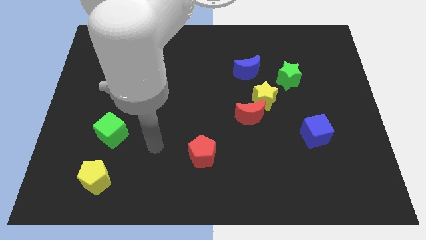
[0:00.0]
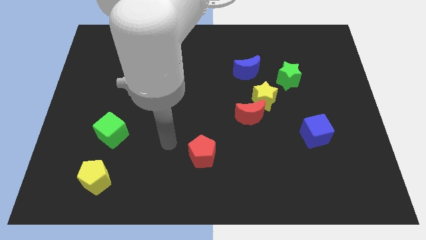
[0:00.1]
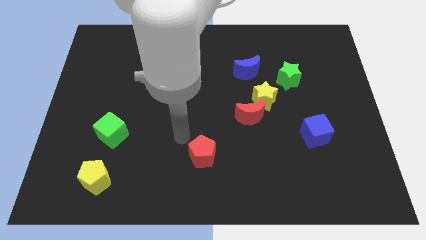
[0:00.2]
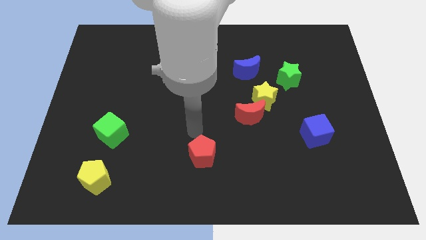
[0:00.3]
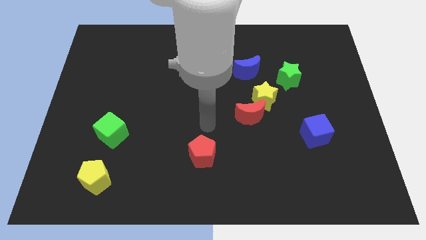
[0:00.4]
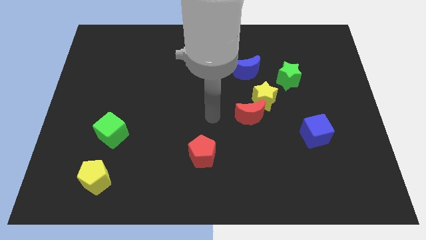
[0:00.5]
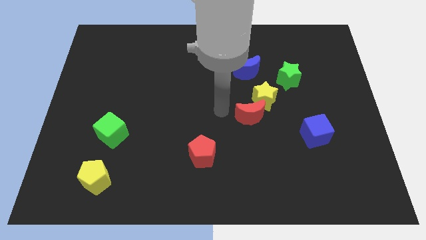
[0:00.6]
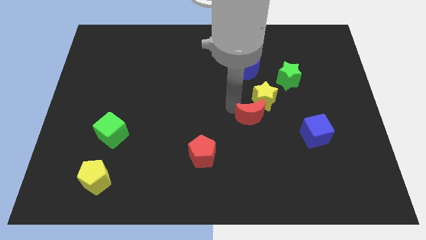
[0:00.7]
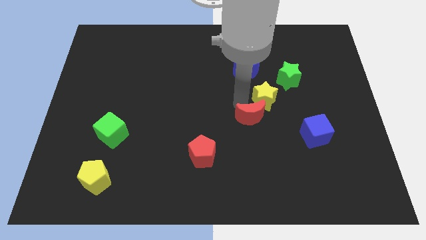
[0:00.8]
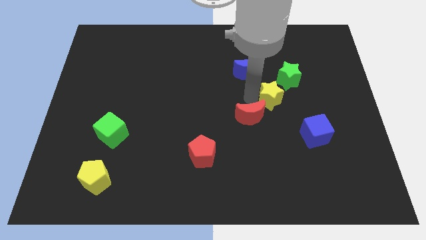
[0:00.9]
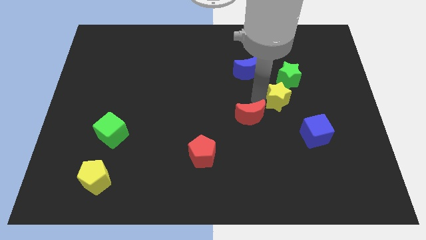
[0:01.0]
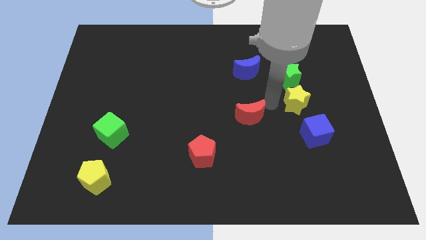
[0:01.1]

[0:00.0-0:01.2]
pull the red moon apart from the yellow star

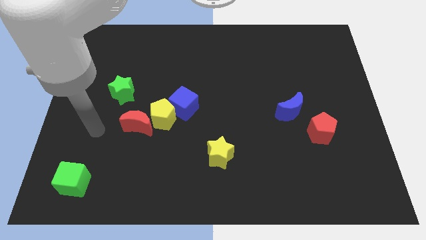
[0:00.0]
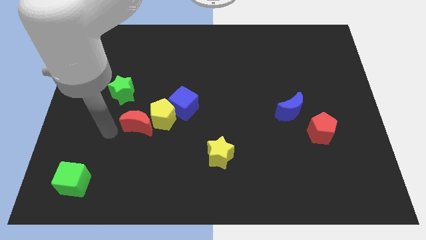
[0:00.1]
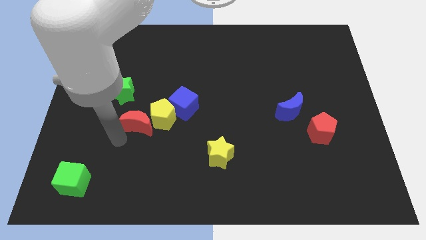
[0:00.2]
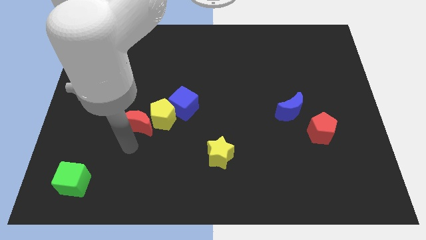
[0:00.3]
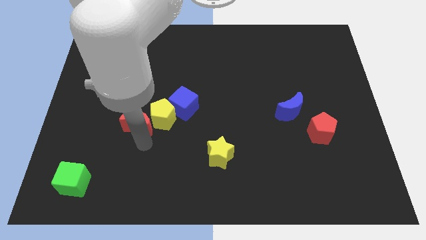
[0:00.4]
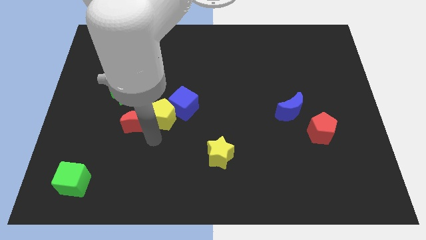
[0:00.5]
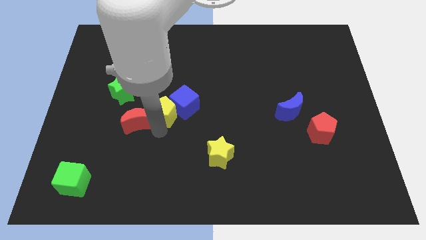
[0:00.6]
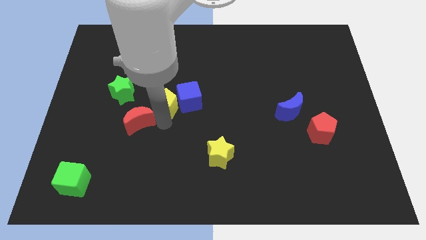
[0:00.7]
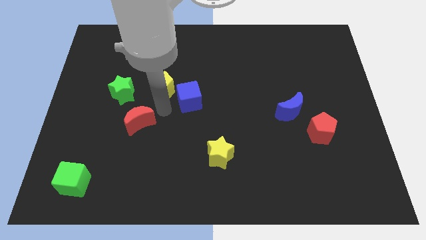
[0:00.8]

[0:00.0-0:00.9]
separate the red moon from the yellow pentagon

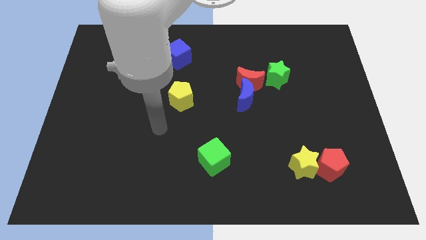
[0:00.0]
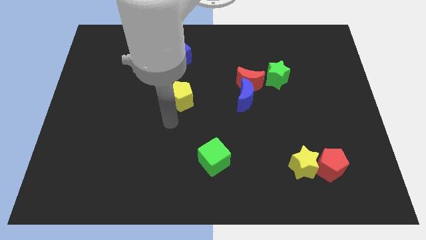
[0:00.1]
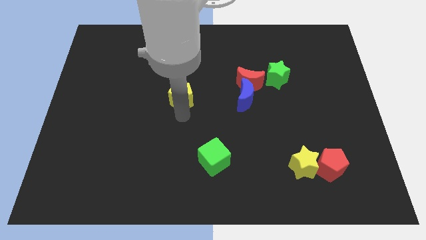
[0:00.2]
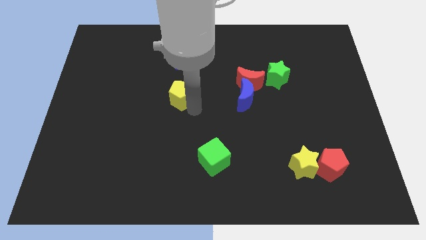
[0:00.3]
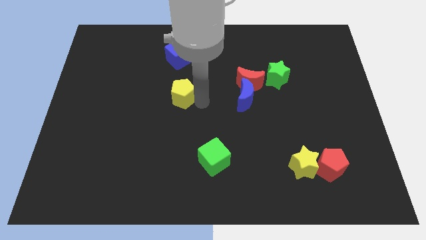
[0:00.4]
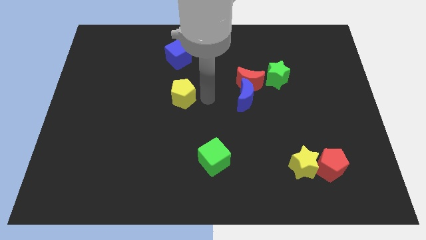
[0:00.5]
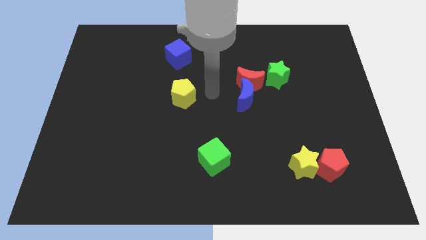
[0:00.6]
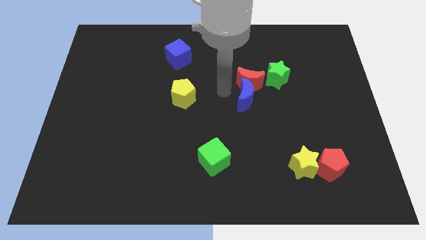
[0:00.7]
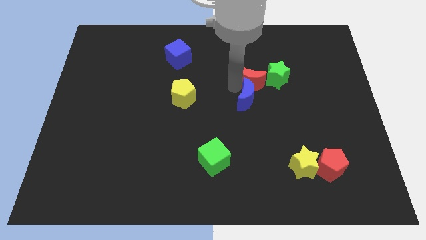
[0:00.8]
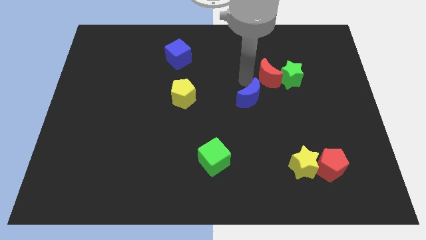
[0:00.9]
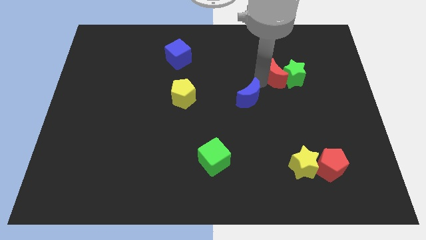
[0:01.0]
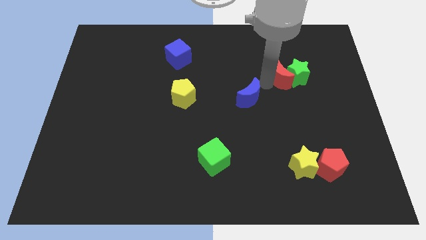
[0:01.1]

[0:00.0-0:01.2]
move the blue moon away from the red moon

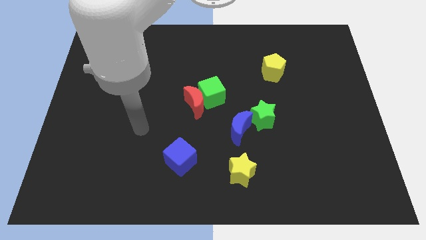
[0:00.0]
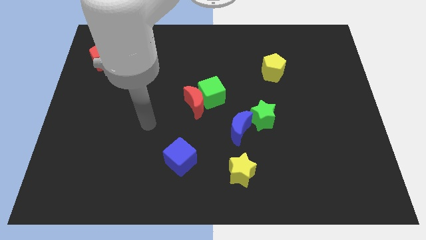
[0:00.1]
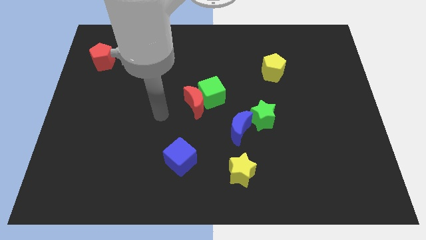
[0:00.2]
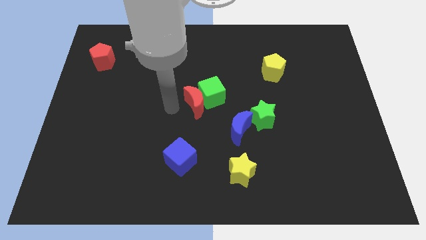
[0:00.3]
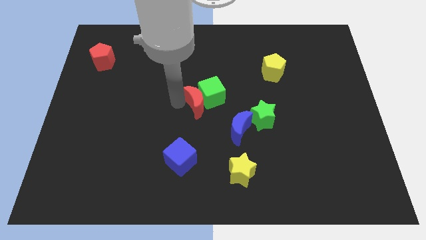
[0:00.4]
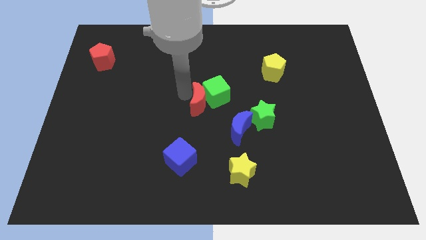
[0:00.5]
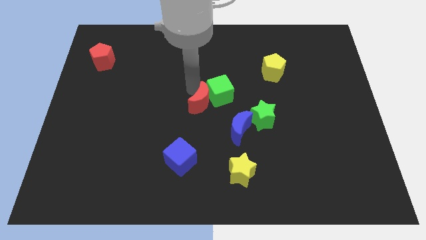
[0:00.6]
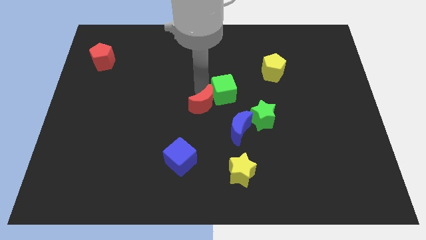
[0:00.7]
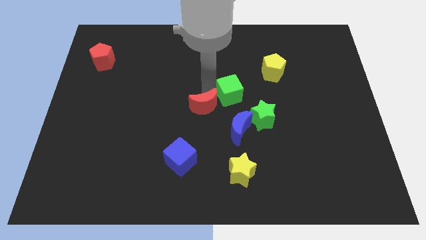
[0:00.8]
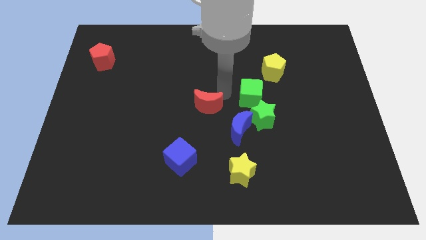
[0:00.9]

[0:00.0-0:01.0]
move the red moon away from the green cube

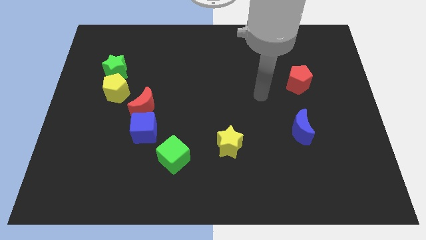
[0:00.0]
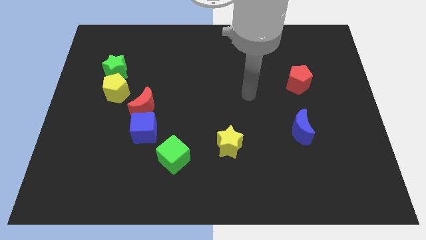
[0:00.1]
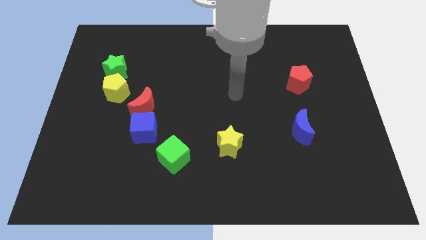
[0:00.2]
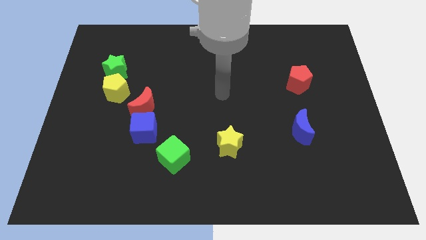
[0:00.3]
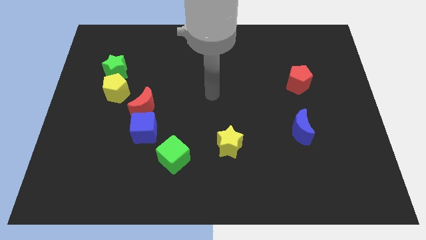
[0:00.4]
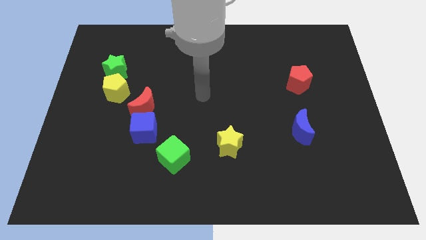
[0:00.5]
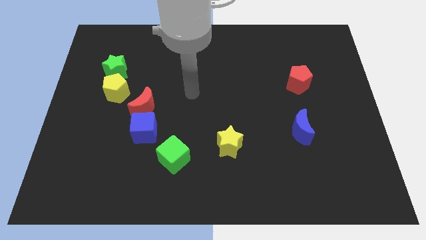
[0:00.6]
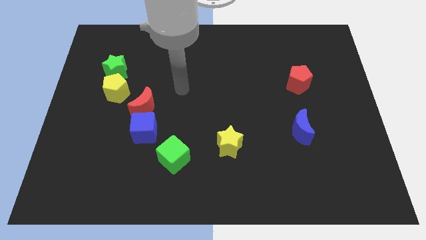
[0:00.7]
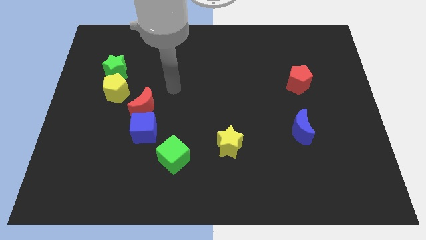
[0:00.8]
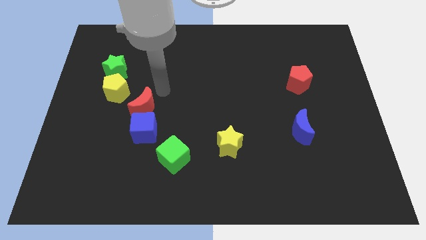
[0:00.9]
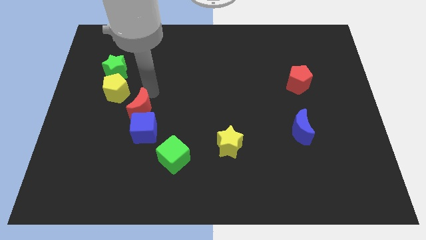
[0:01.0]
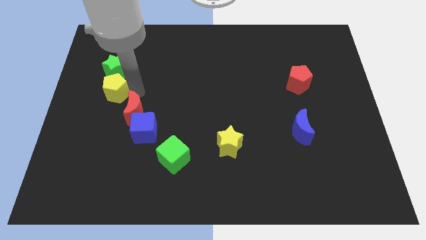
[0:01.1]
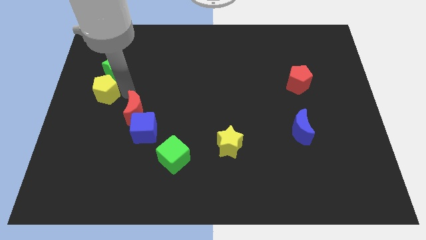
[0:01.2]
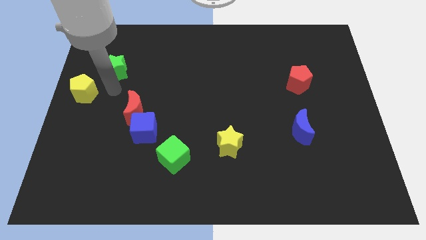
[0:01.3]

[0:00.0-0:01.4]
pull the green star apart from the yellow pentagon

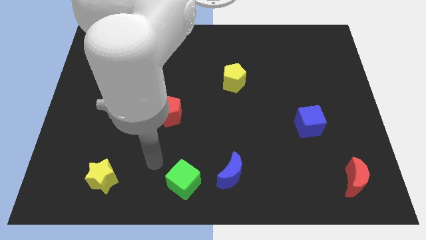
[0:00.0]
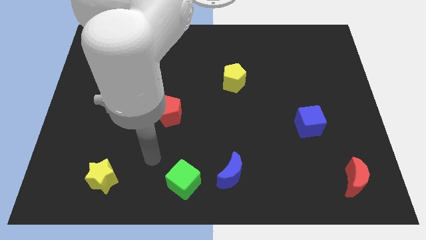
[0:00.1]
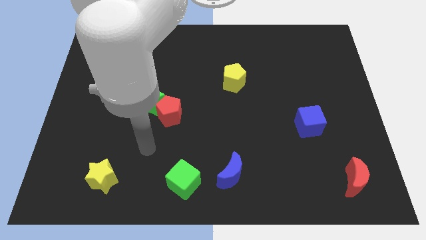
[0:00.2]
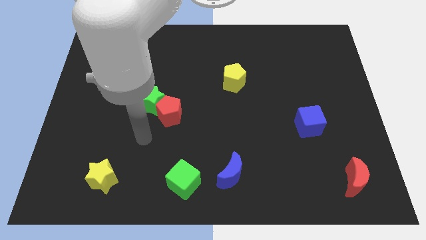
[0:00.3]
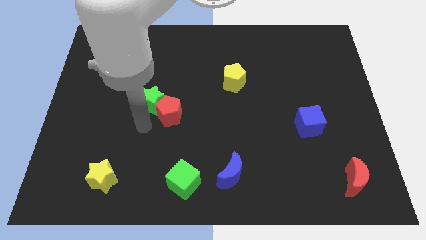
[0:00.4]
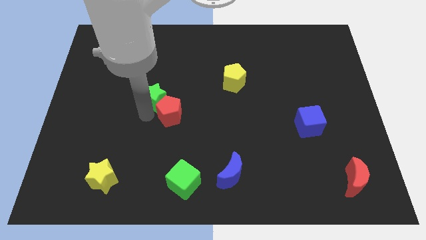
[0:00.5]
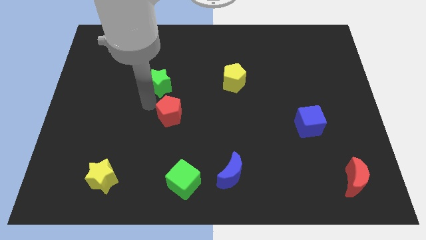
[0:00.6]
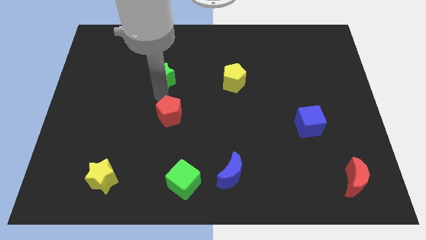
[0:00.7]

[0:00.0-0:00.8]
move the red pentagon away from the green star

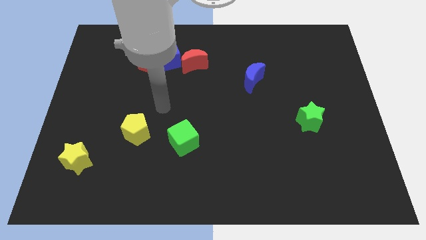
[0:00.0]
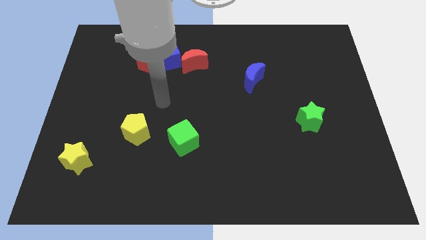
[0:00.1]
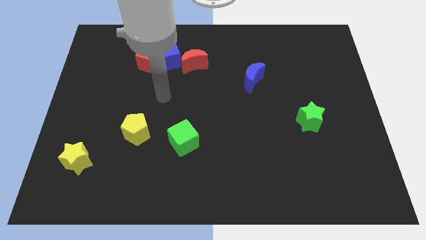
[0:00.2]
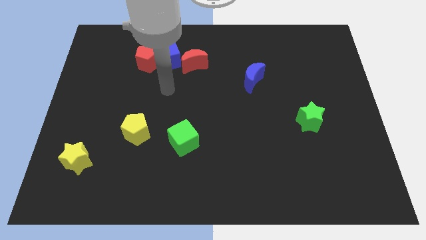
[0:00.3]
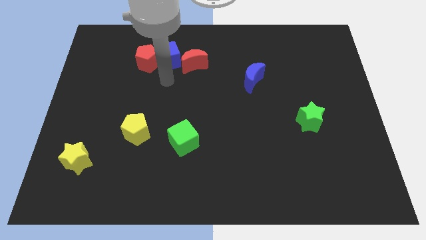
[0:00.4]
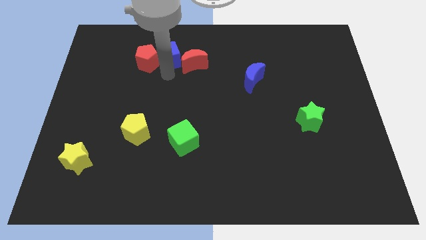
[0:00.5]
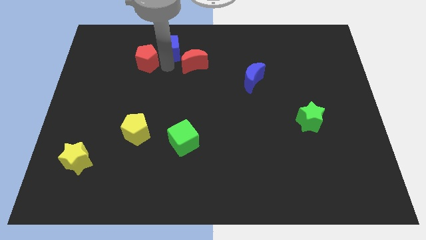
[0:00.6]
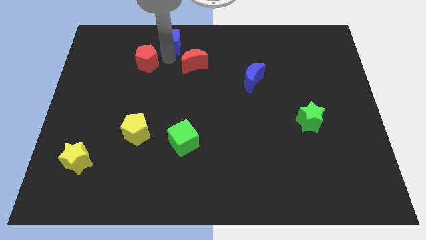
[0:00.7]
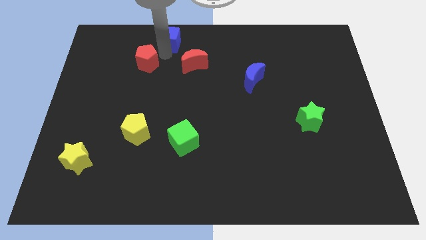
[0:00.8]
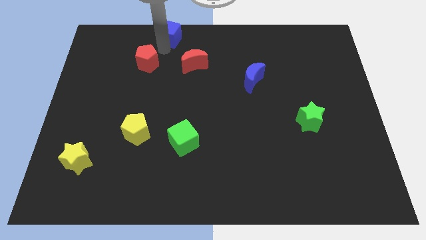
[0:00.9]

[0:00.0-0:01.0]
separate the red pentagon from the blue cube

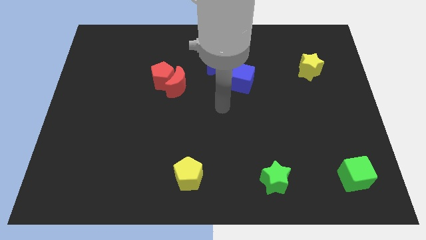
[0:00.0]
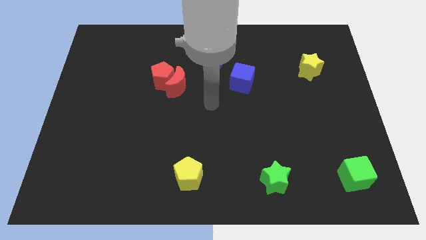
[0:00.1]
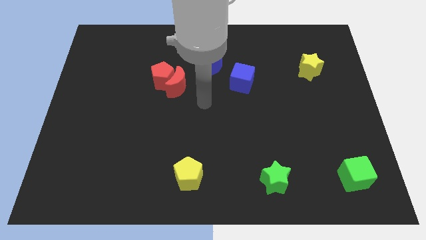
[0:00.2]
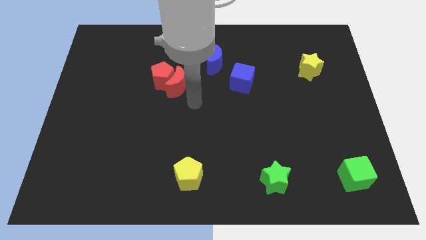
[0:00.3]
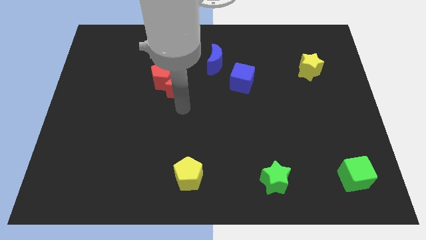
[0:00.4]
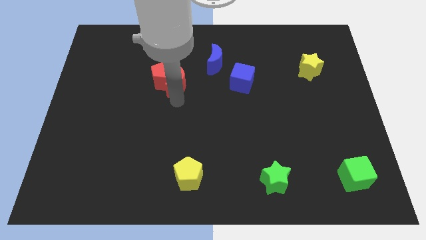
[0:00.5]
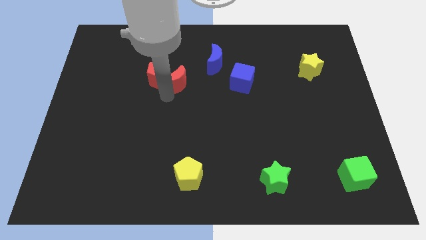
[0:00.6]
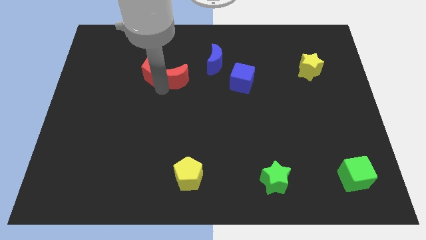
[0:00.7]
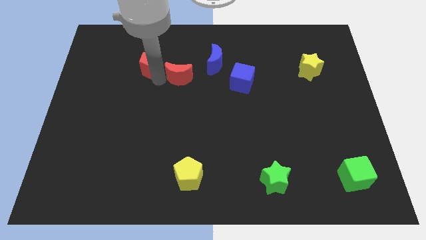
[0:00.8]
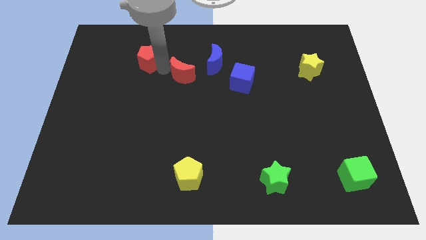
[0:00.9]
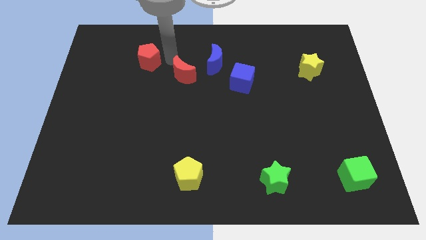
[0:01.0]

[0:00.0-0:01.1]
separate the red moon from the red pentagon

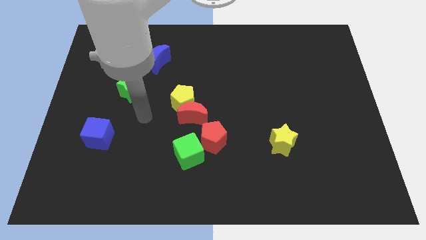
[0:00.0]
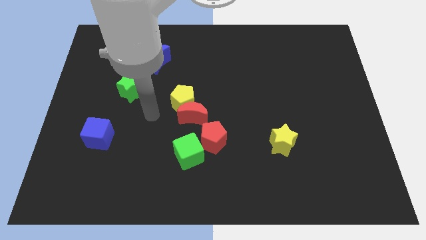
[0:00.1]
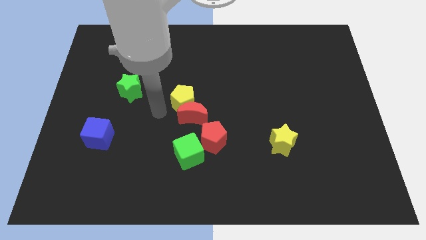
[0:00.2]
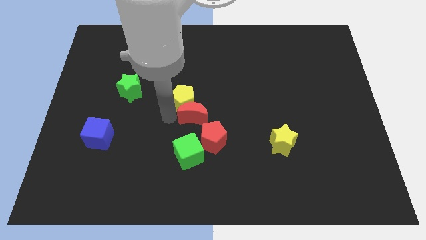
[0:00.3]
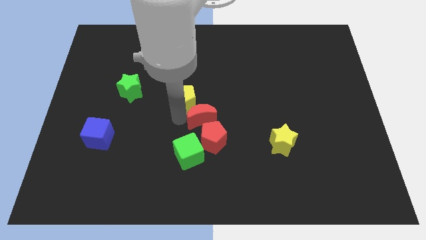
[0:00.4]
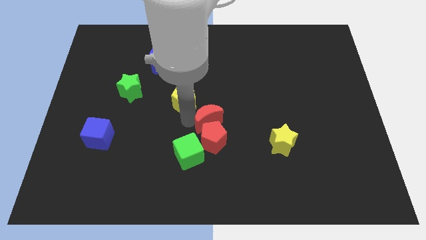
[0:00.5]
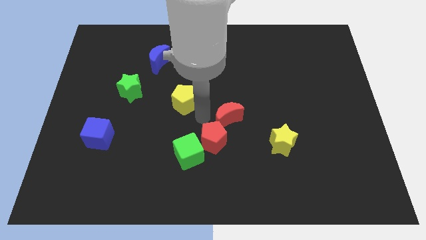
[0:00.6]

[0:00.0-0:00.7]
separate the yellow pentagon from the red moon
